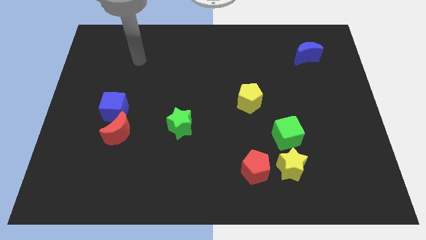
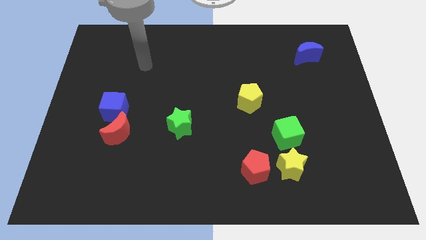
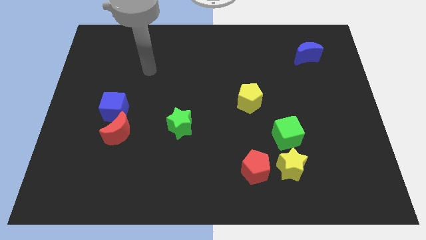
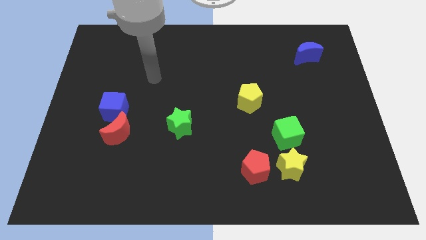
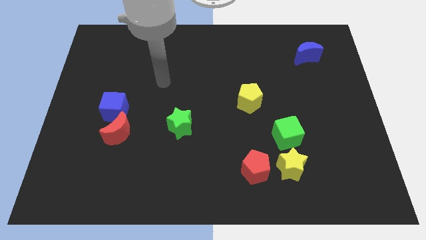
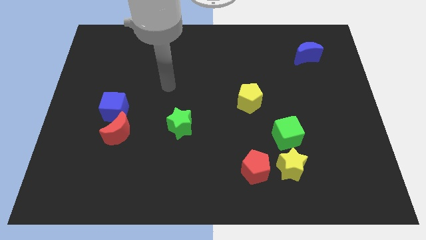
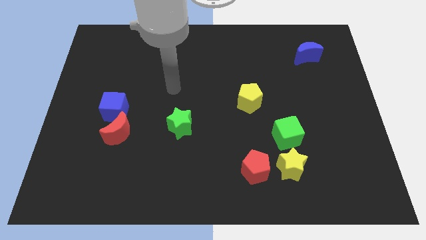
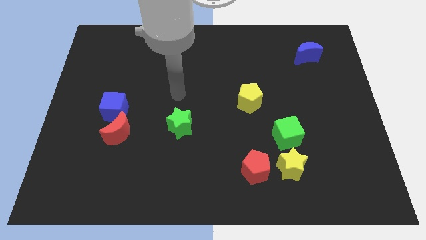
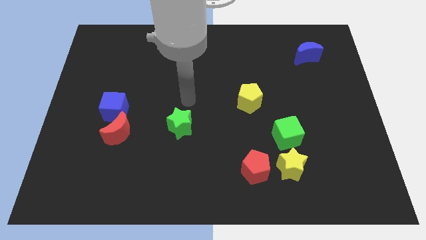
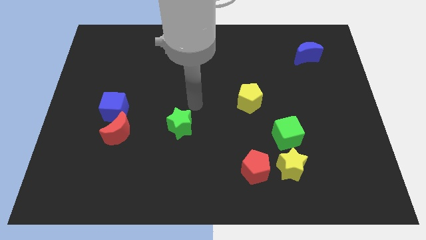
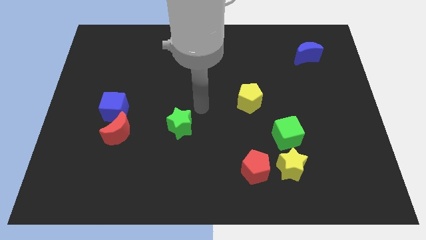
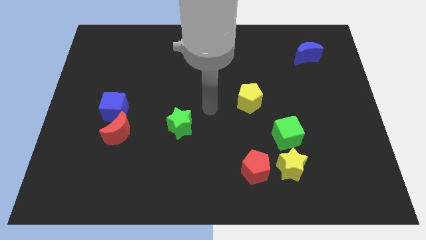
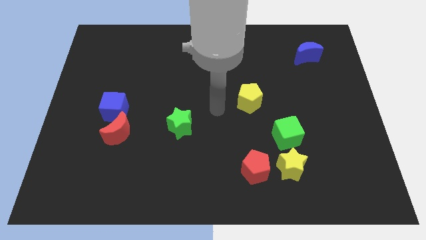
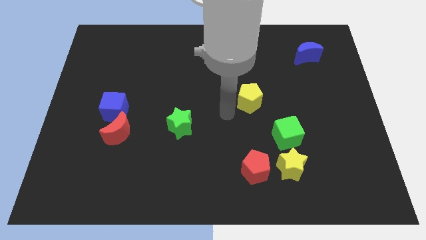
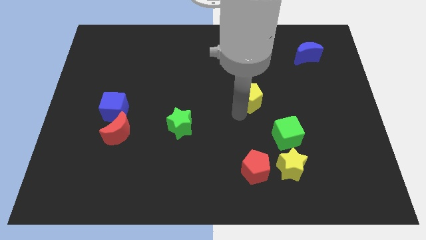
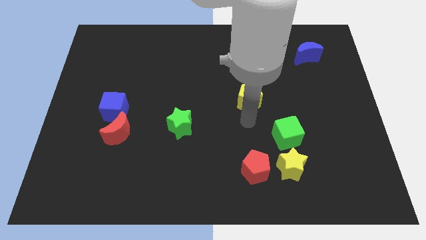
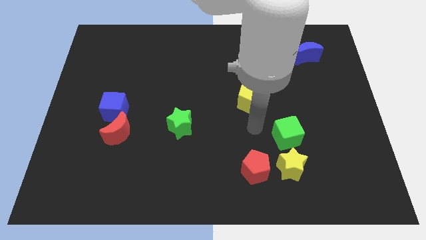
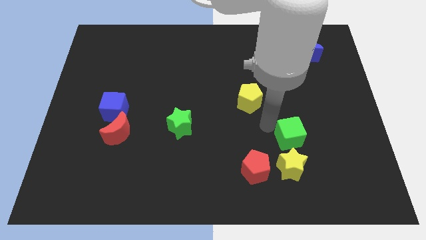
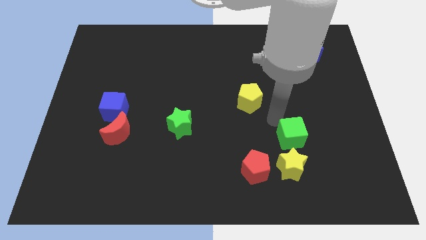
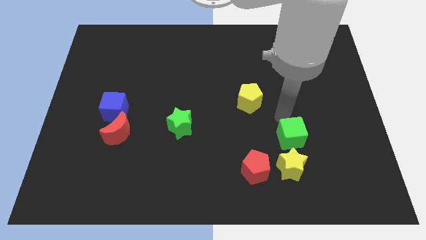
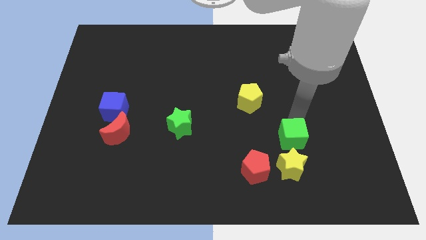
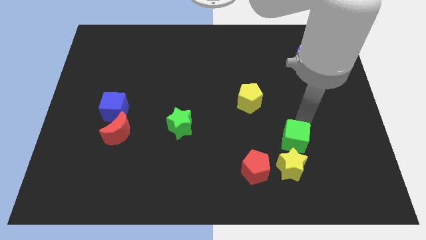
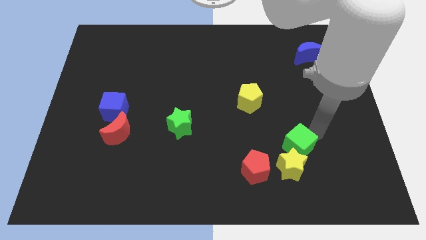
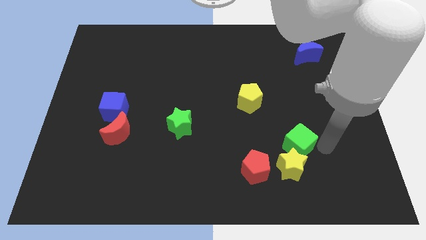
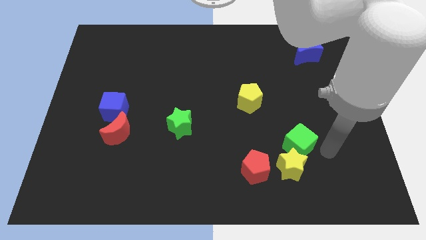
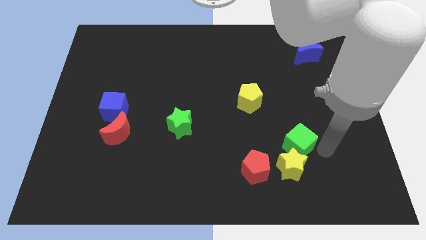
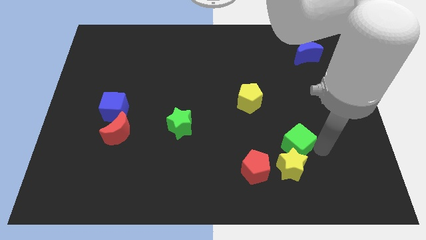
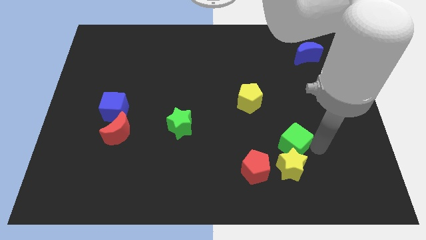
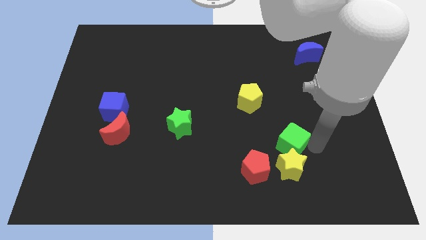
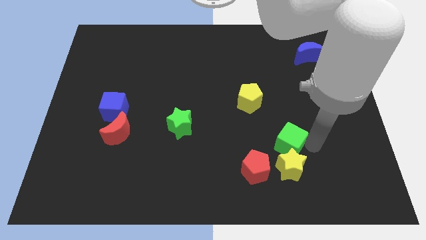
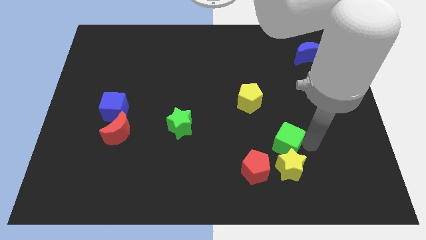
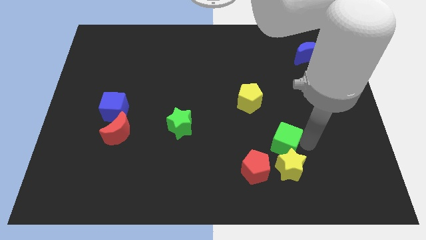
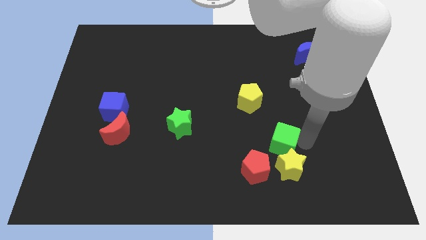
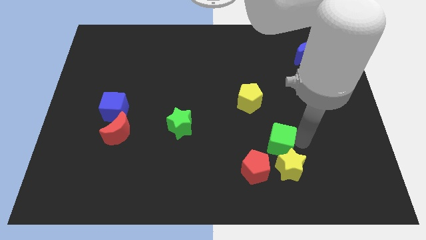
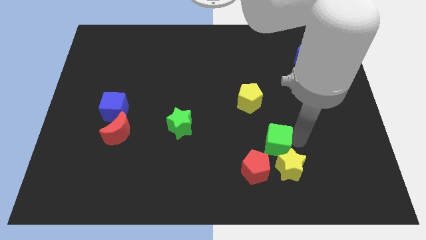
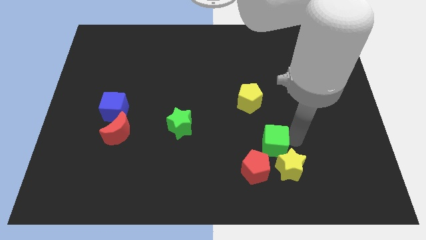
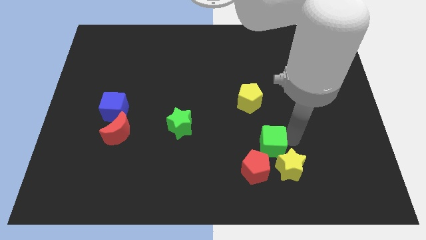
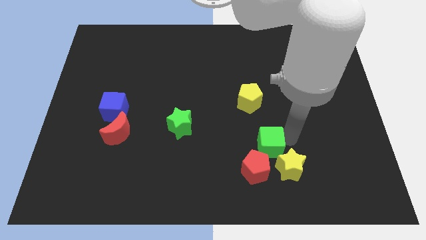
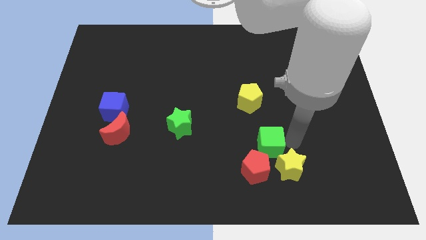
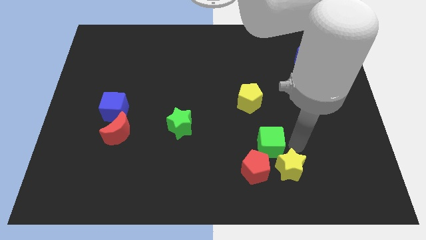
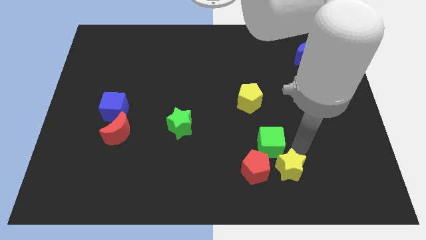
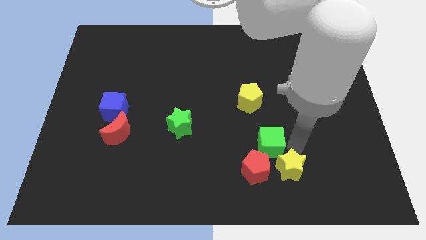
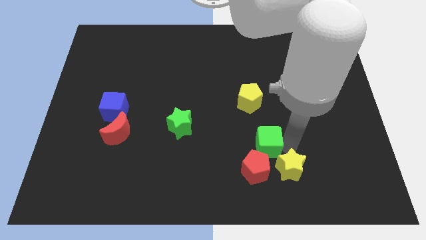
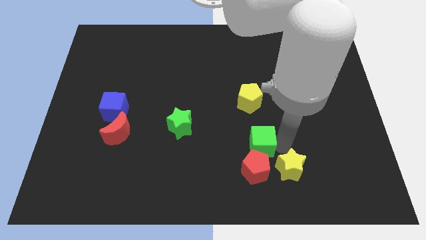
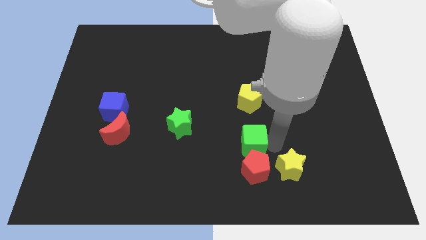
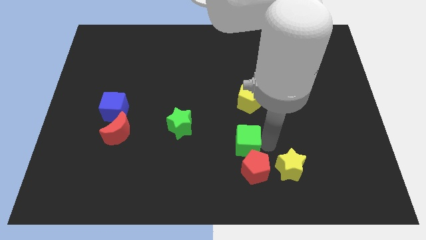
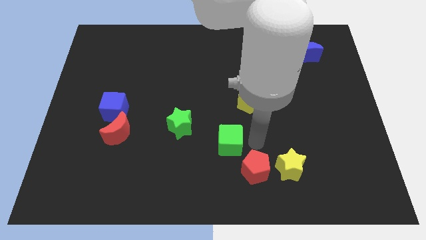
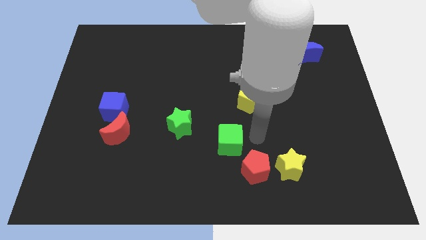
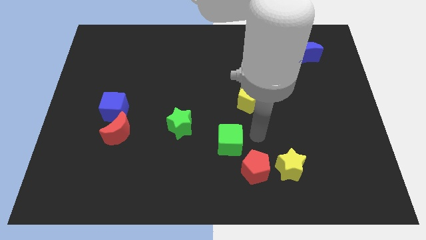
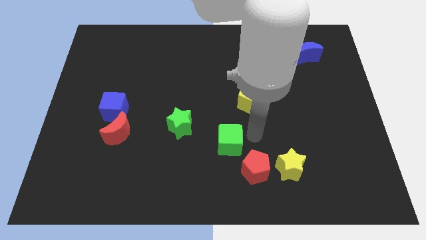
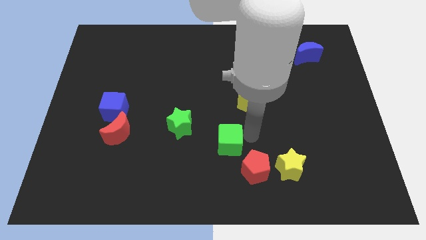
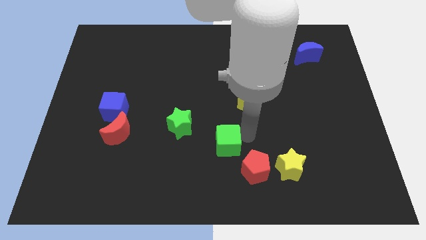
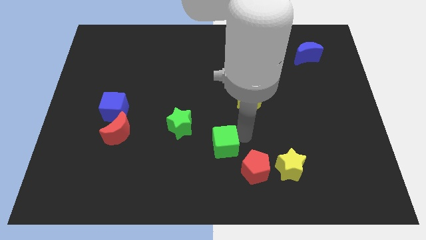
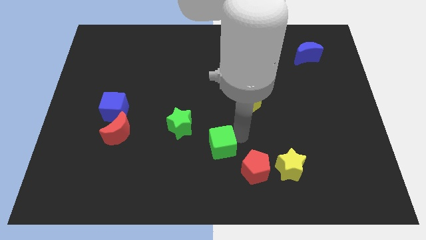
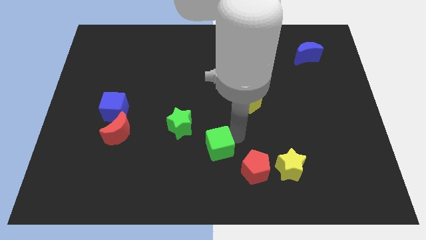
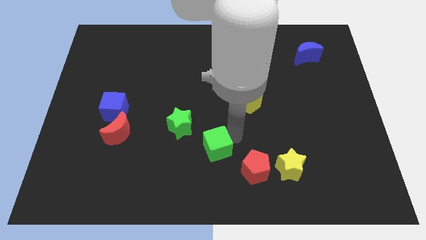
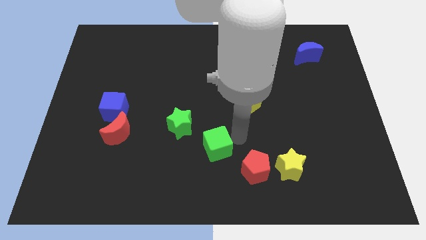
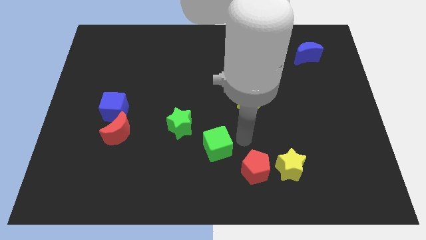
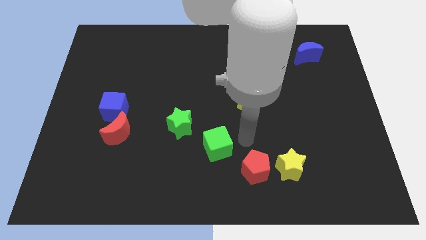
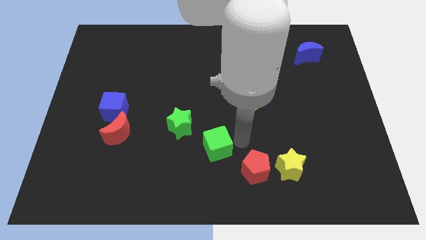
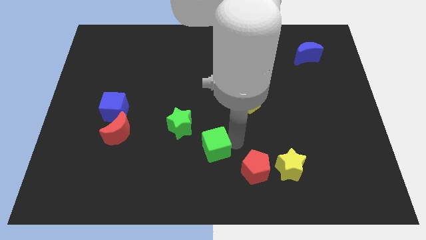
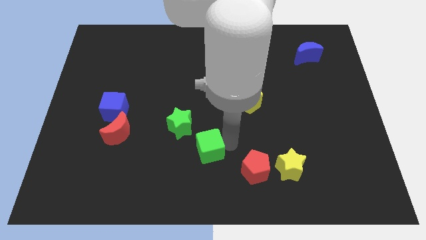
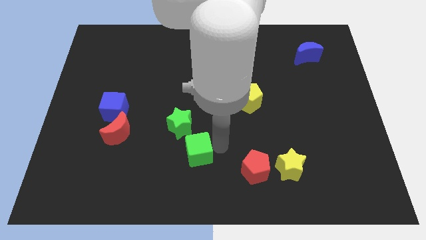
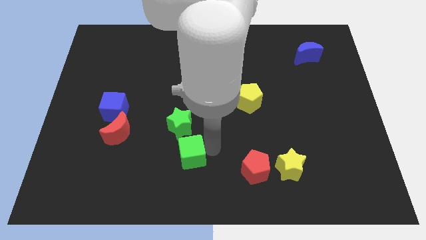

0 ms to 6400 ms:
push the green cube to the left

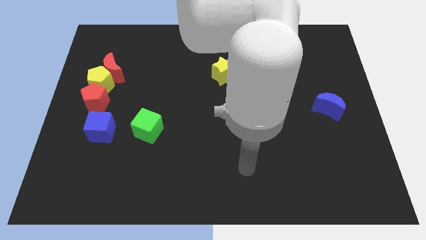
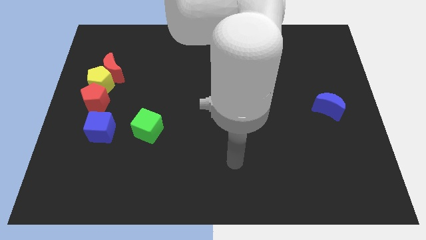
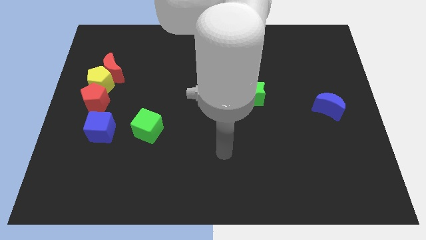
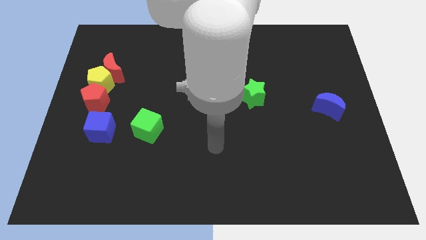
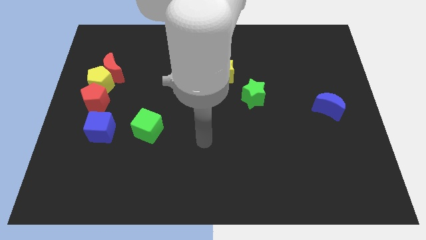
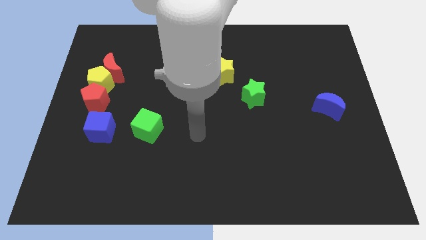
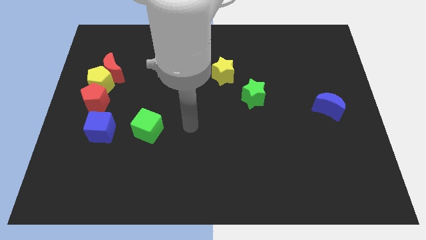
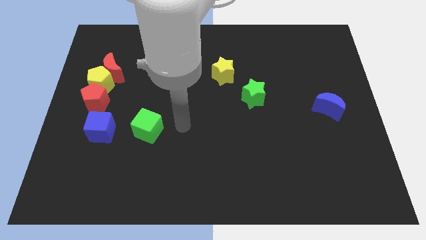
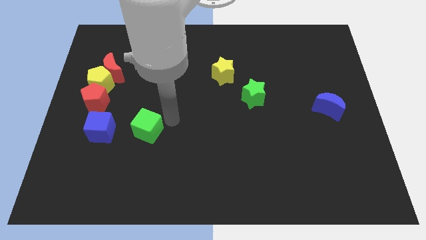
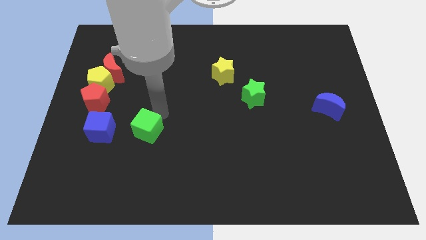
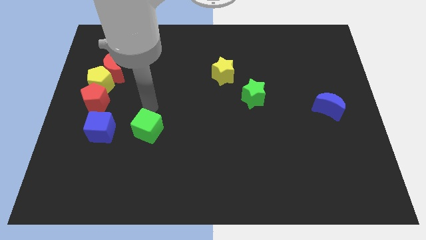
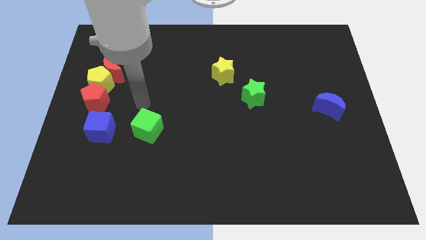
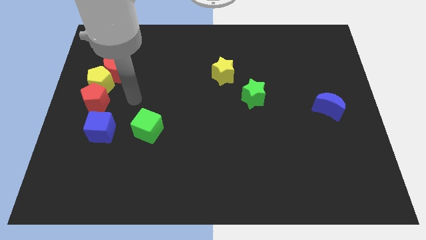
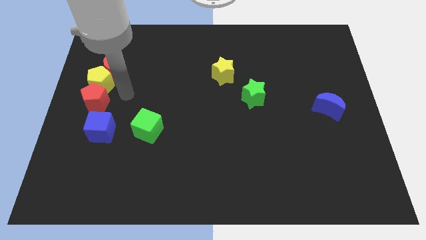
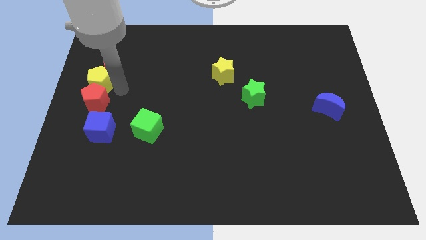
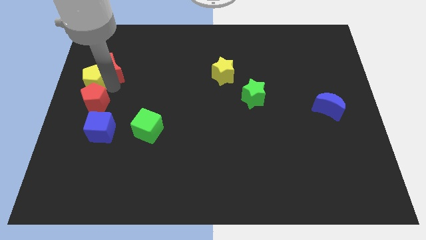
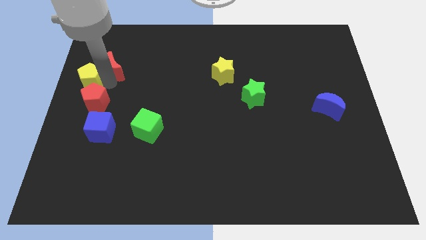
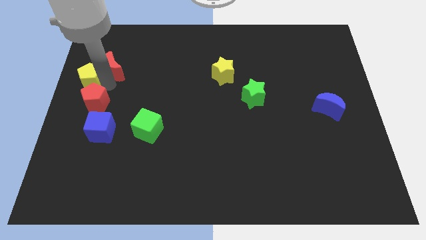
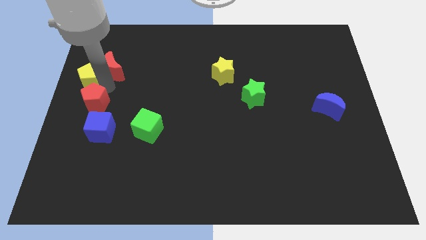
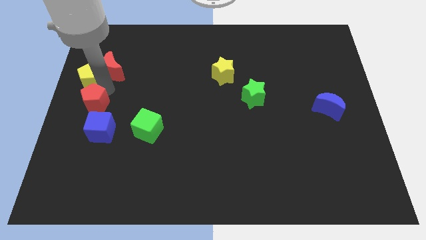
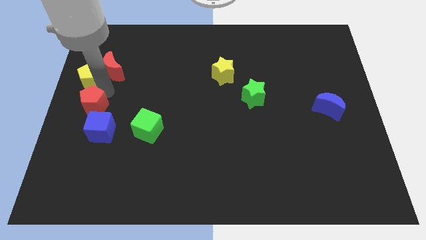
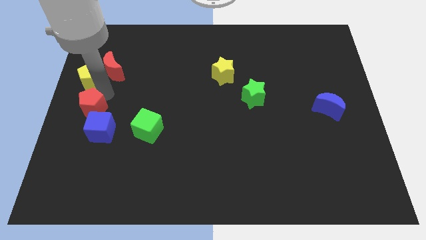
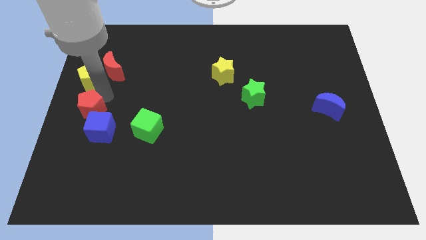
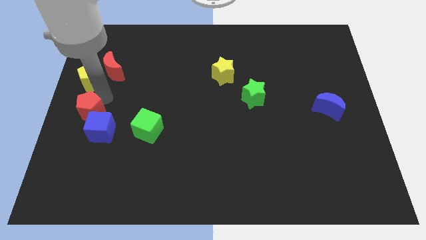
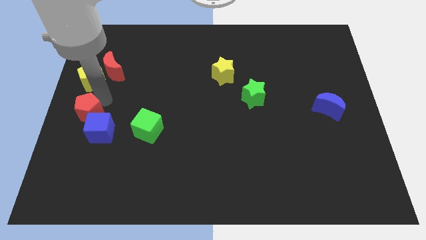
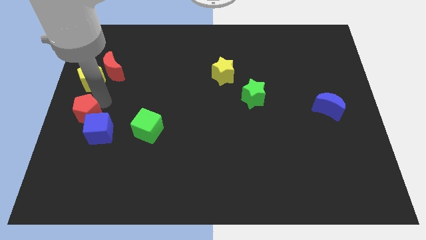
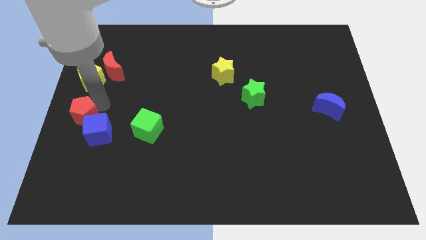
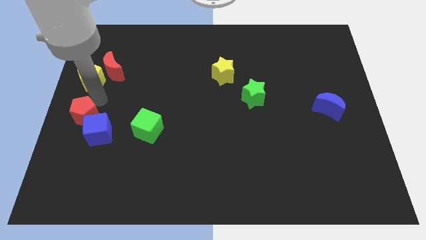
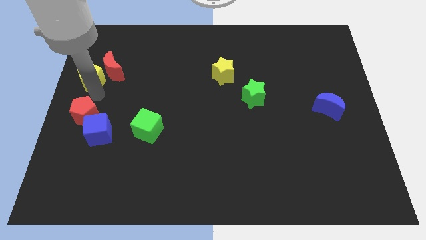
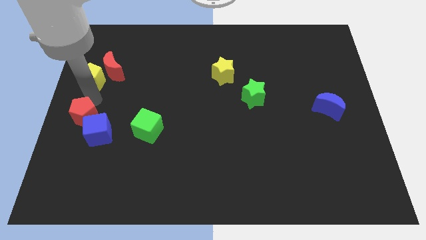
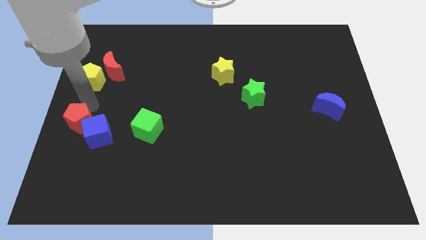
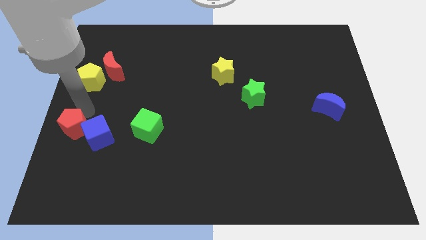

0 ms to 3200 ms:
slightly push the red pentagon downwards
